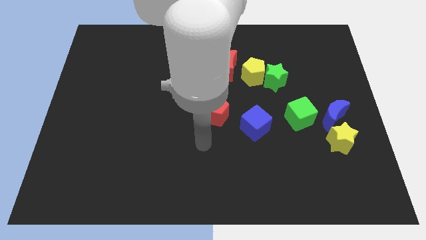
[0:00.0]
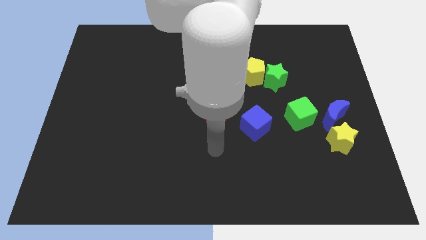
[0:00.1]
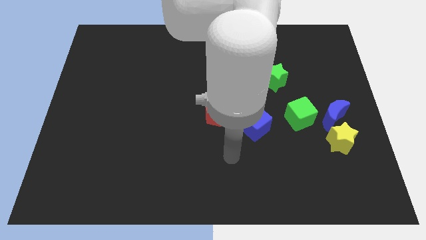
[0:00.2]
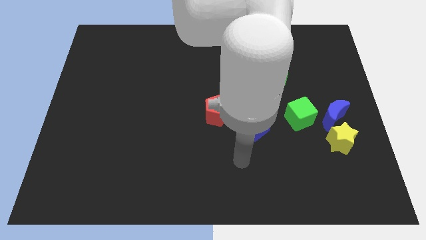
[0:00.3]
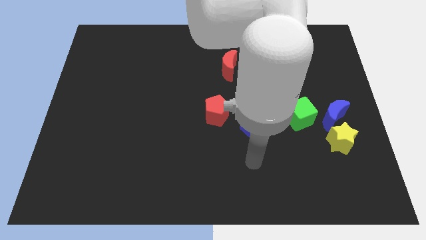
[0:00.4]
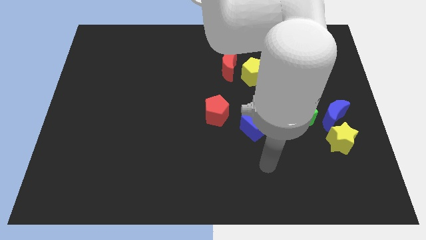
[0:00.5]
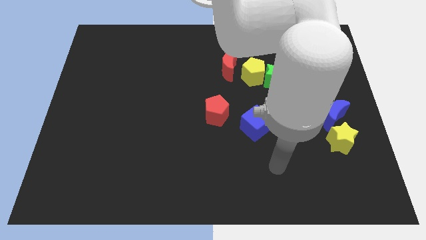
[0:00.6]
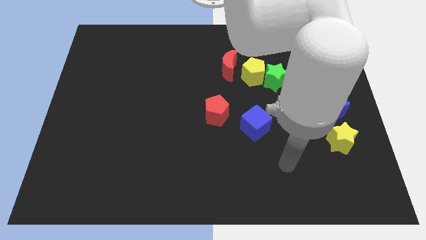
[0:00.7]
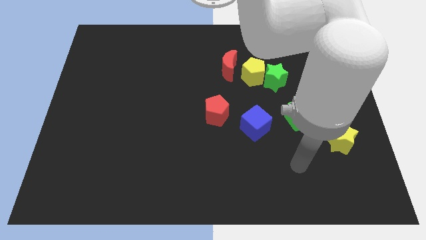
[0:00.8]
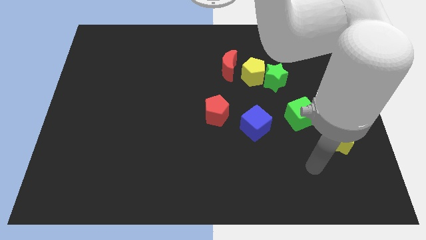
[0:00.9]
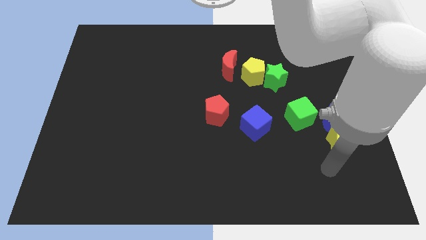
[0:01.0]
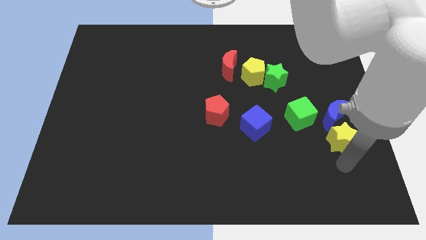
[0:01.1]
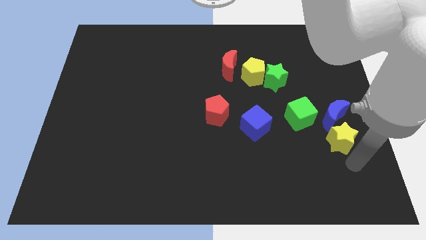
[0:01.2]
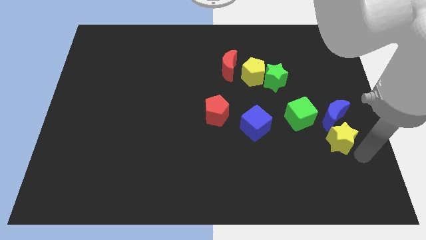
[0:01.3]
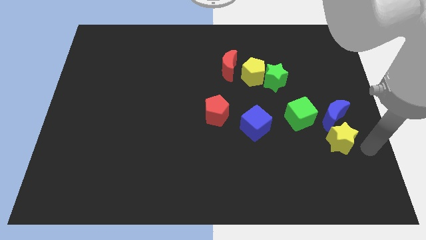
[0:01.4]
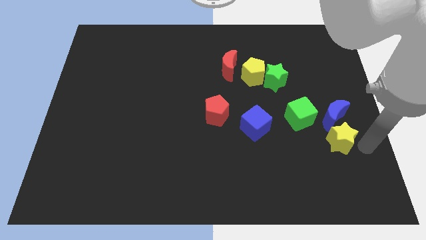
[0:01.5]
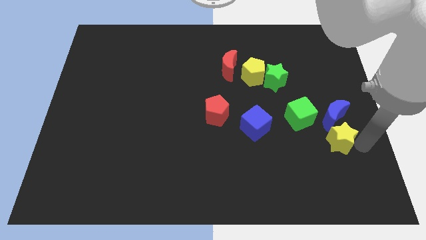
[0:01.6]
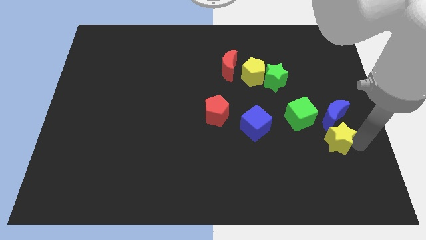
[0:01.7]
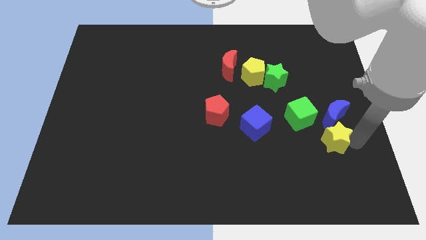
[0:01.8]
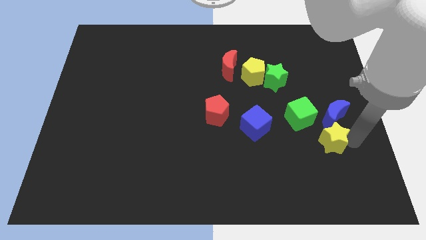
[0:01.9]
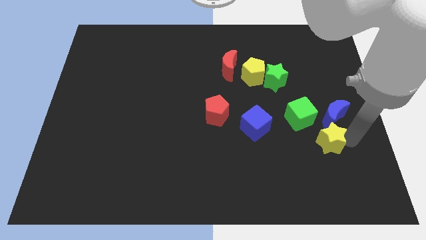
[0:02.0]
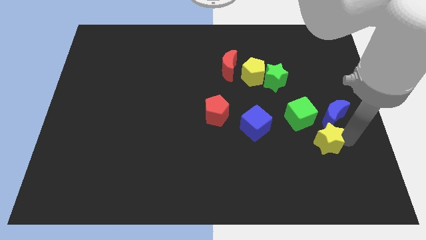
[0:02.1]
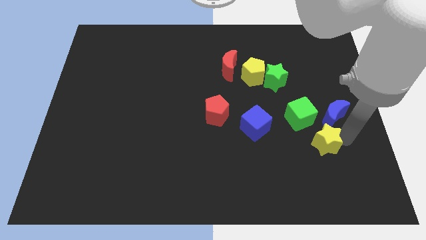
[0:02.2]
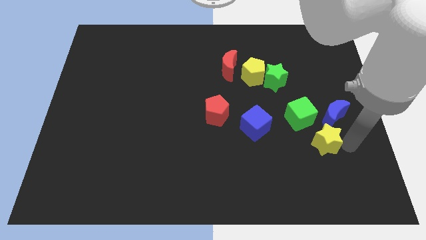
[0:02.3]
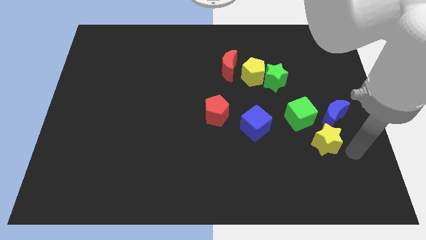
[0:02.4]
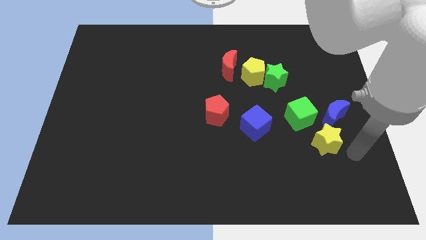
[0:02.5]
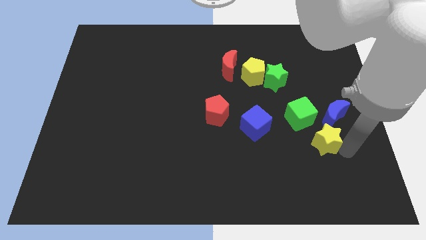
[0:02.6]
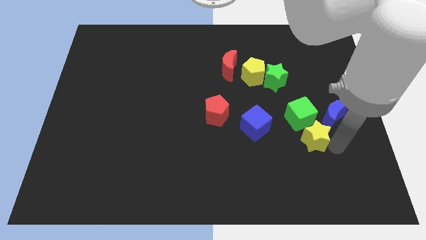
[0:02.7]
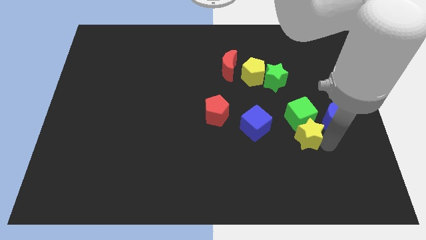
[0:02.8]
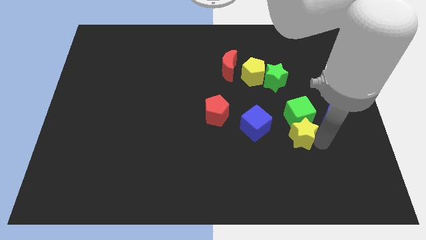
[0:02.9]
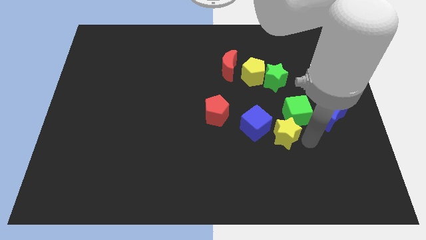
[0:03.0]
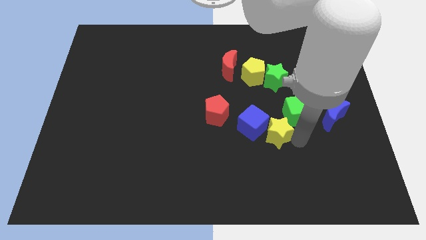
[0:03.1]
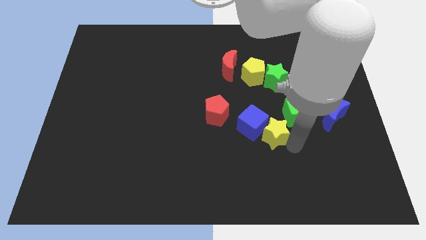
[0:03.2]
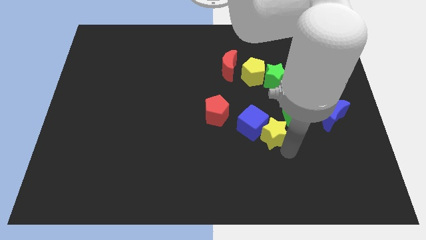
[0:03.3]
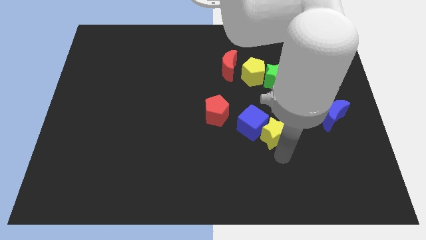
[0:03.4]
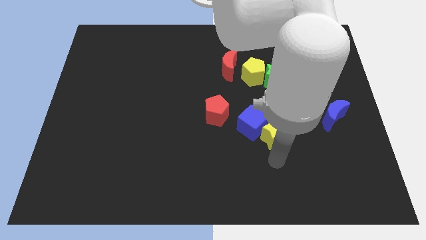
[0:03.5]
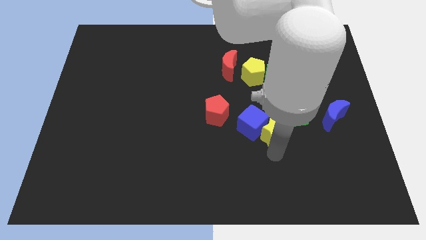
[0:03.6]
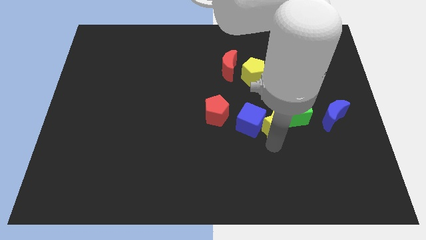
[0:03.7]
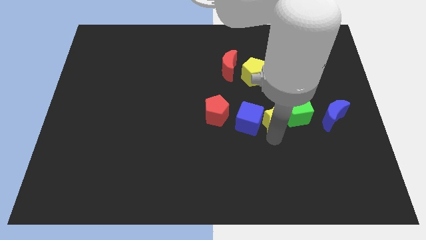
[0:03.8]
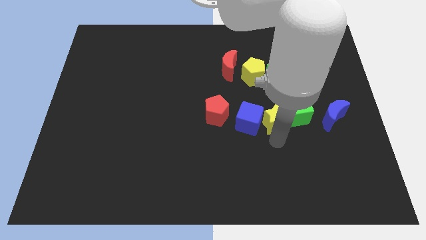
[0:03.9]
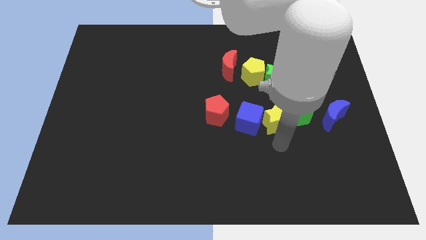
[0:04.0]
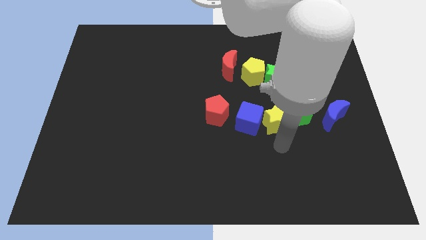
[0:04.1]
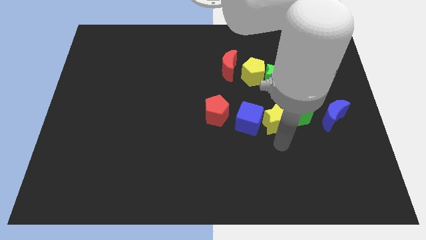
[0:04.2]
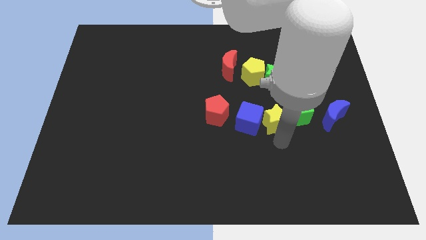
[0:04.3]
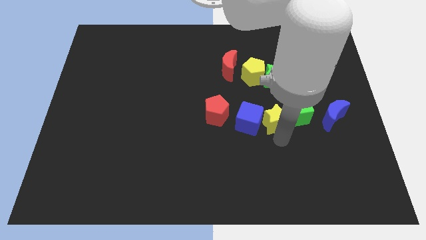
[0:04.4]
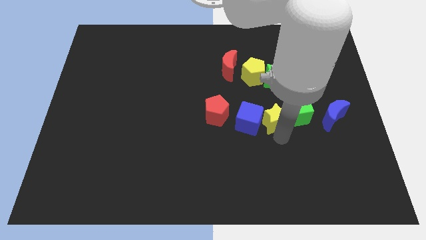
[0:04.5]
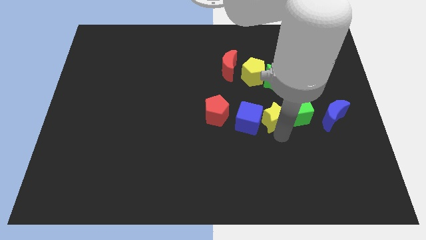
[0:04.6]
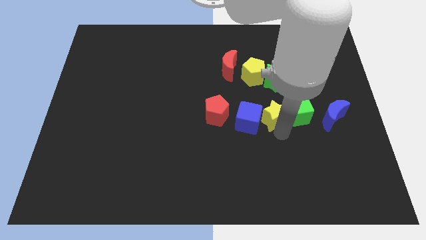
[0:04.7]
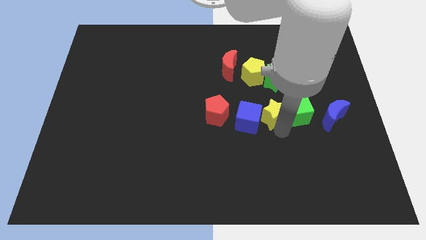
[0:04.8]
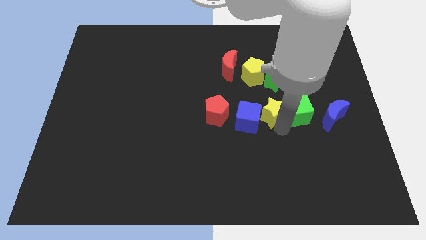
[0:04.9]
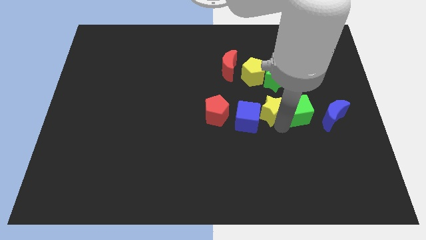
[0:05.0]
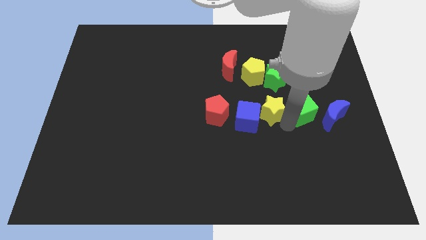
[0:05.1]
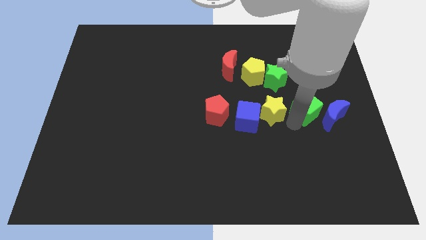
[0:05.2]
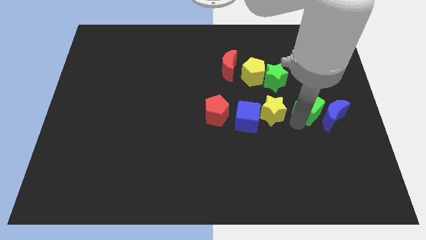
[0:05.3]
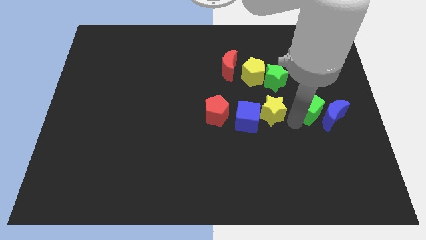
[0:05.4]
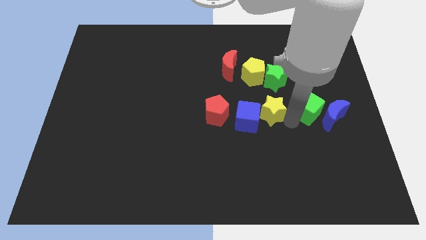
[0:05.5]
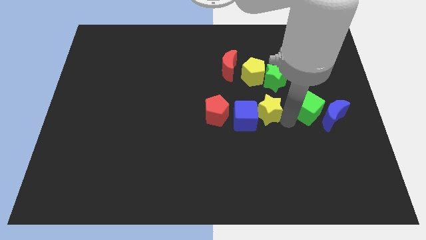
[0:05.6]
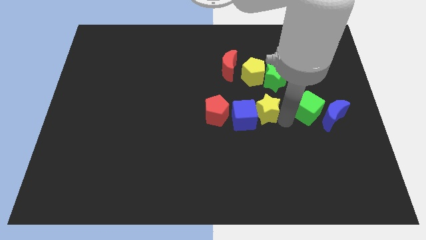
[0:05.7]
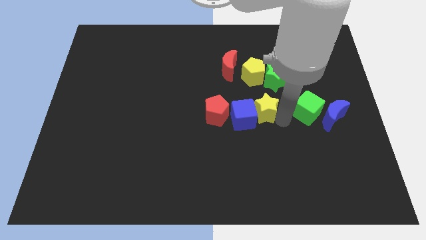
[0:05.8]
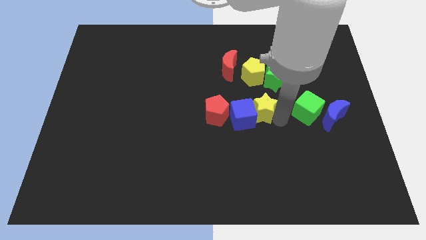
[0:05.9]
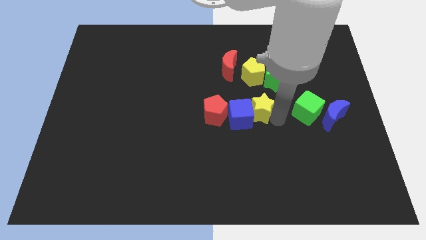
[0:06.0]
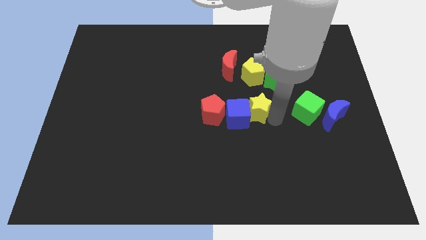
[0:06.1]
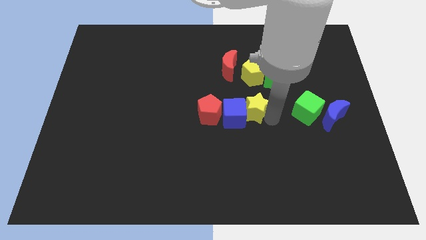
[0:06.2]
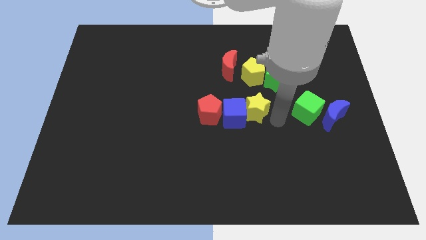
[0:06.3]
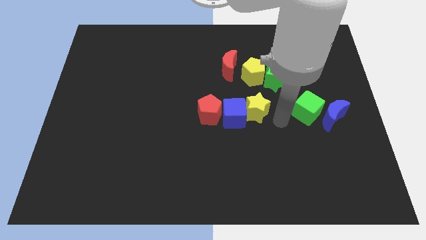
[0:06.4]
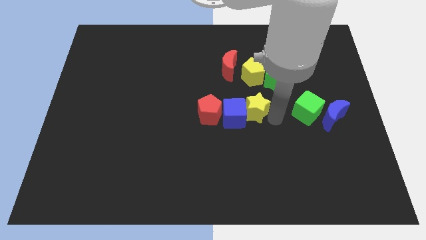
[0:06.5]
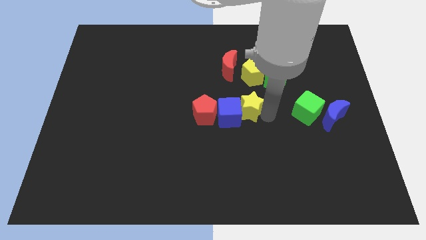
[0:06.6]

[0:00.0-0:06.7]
put the yellow star to the bottom side of the red moon

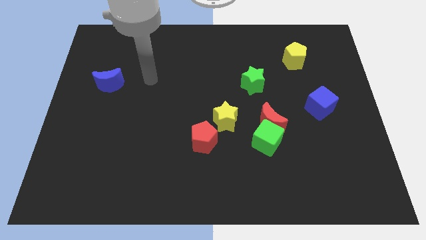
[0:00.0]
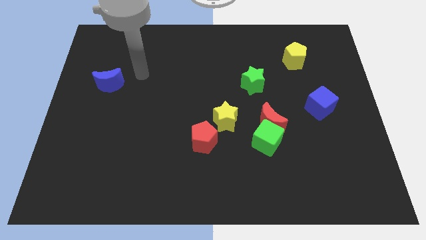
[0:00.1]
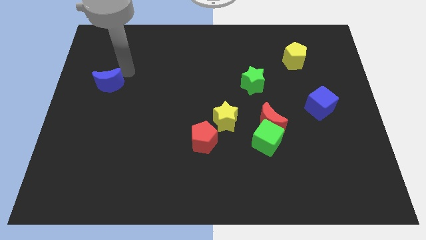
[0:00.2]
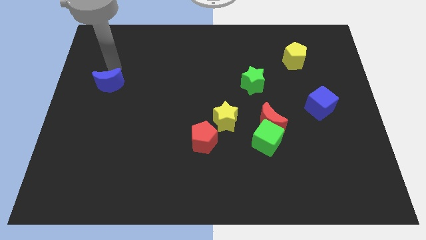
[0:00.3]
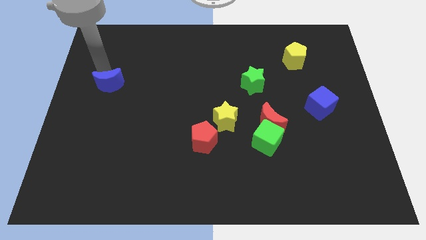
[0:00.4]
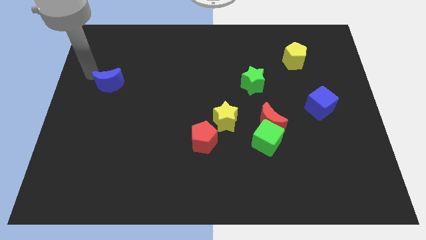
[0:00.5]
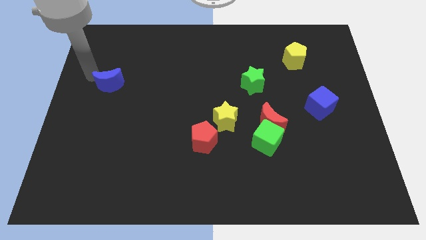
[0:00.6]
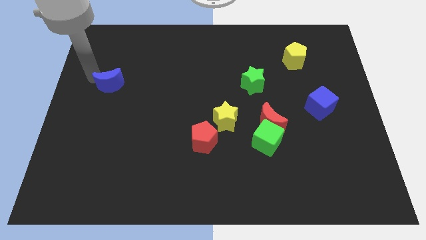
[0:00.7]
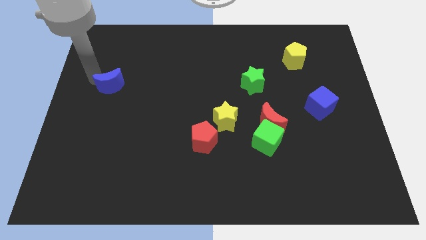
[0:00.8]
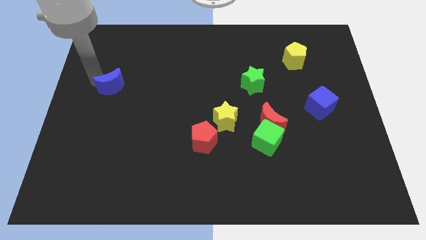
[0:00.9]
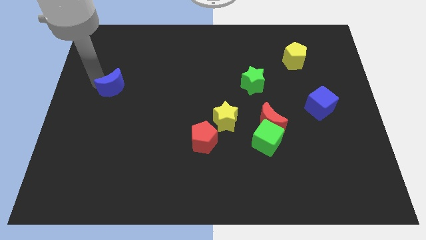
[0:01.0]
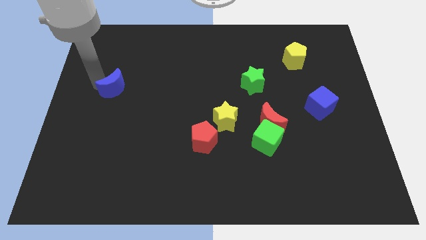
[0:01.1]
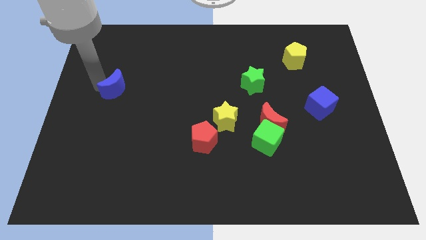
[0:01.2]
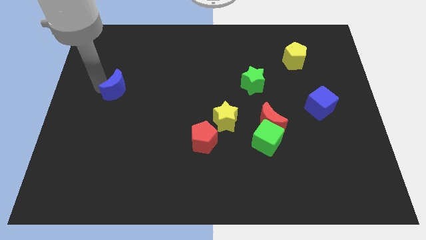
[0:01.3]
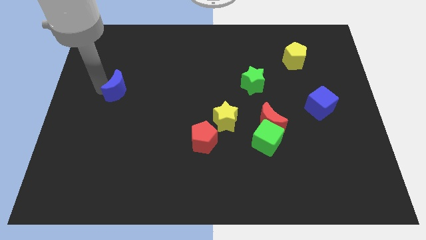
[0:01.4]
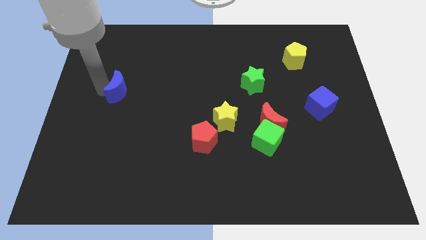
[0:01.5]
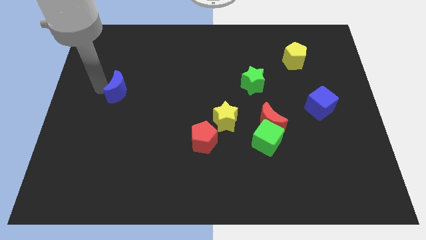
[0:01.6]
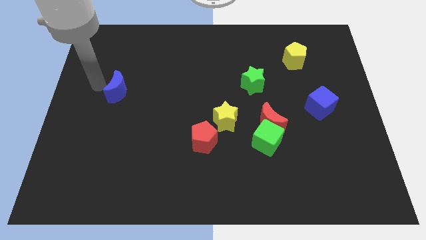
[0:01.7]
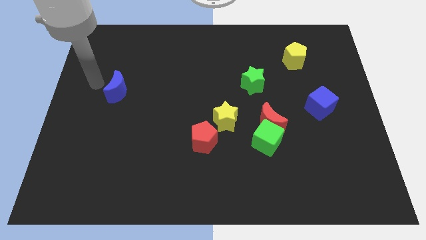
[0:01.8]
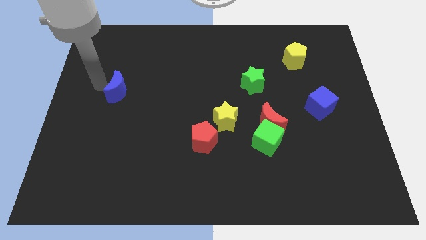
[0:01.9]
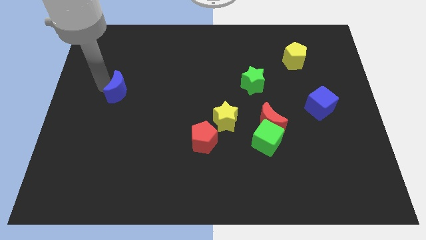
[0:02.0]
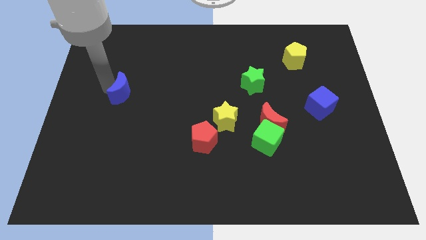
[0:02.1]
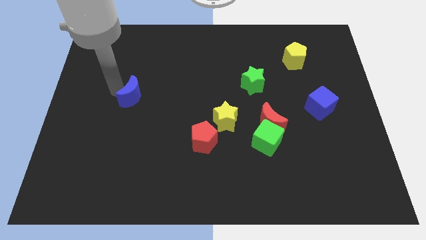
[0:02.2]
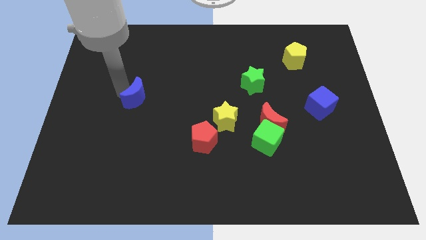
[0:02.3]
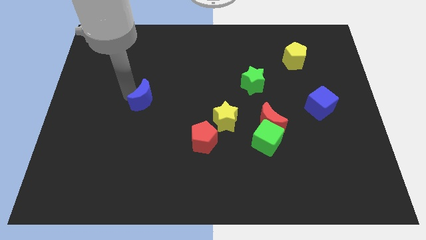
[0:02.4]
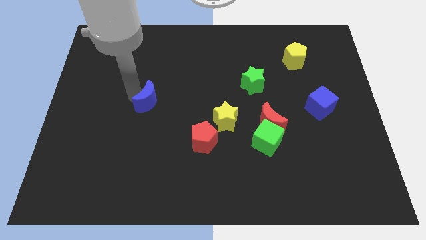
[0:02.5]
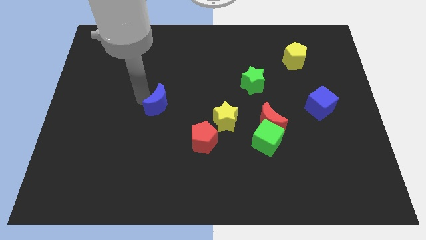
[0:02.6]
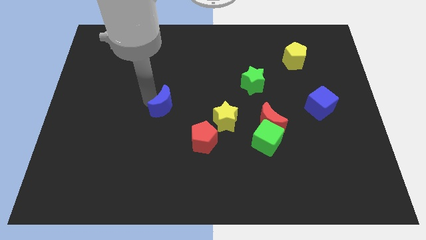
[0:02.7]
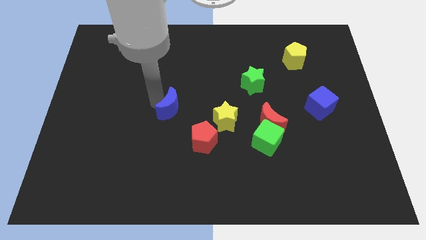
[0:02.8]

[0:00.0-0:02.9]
put the blue moon to the left side of the yellow star
